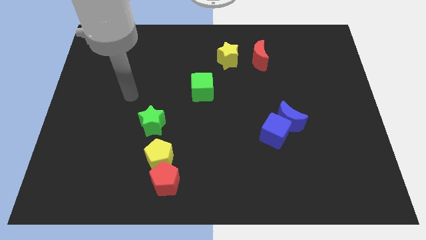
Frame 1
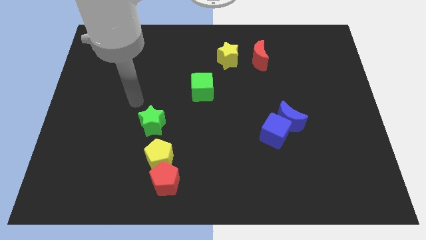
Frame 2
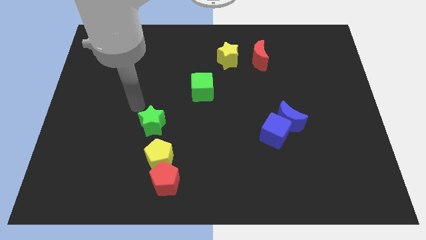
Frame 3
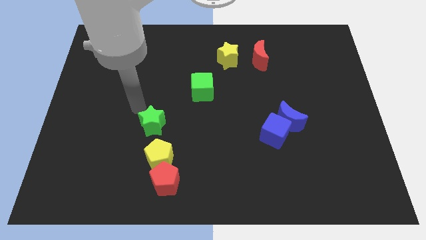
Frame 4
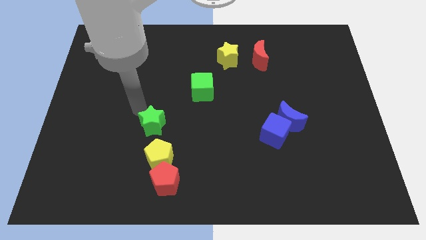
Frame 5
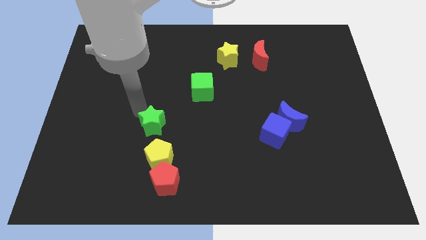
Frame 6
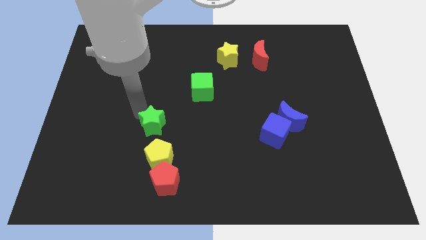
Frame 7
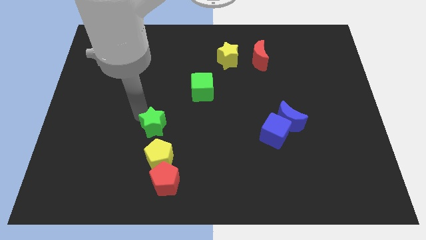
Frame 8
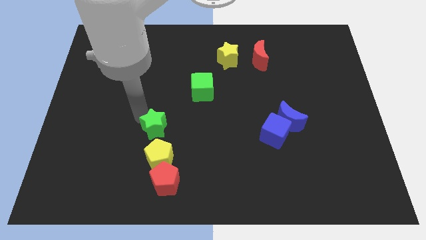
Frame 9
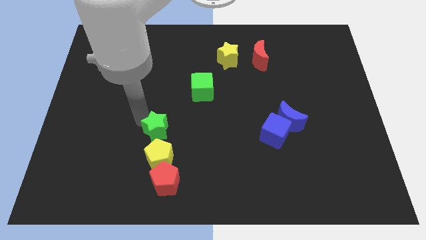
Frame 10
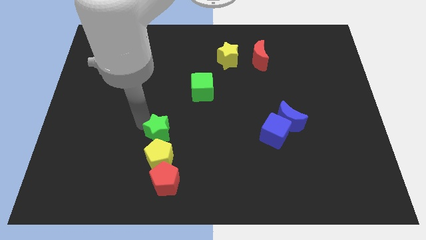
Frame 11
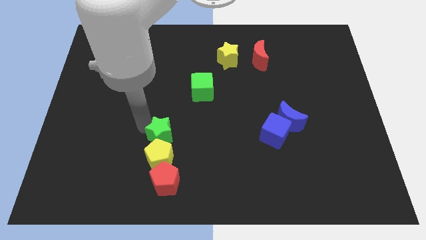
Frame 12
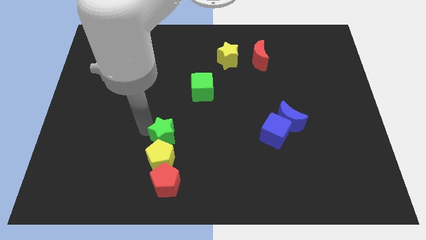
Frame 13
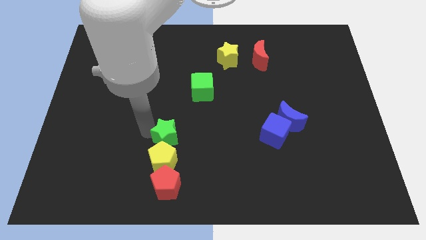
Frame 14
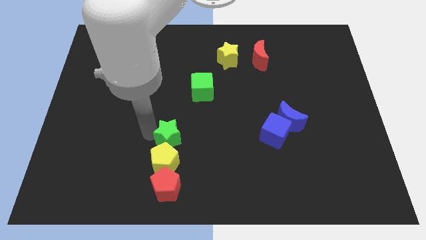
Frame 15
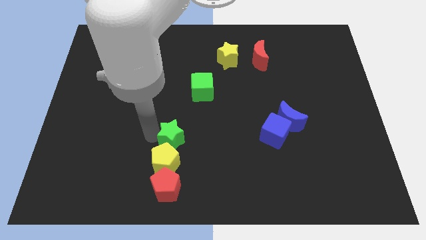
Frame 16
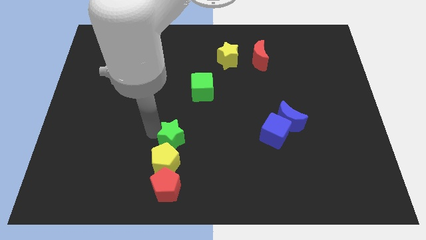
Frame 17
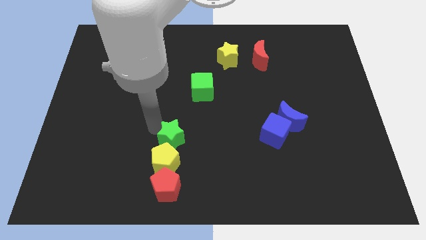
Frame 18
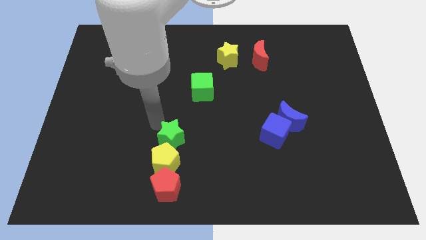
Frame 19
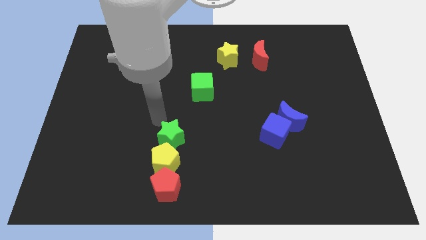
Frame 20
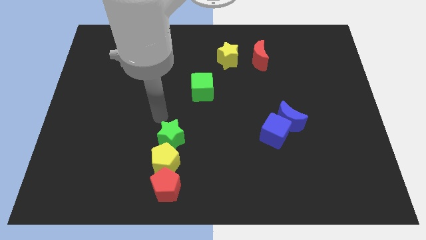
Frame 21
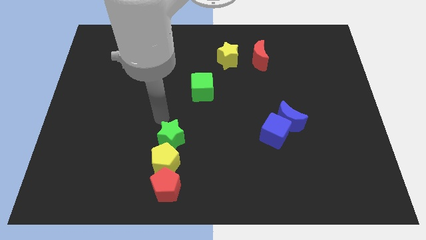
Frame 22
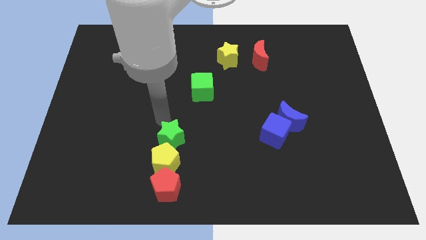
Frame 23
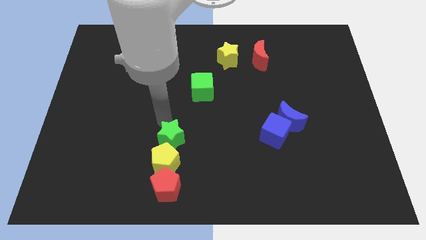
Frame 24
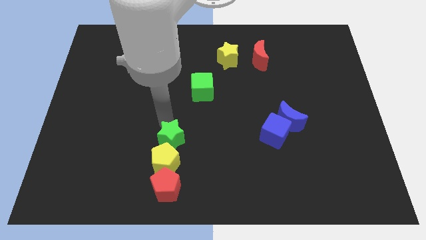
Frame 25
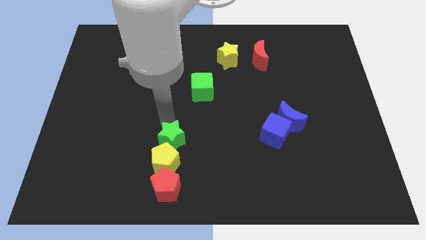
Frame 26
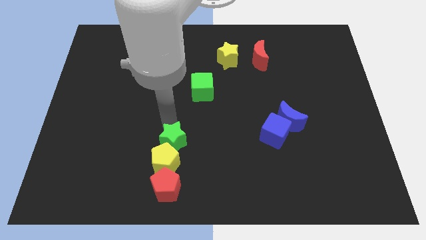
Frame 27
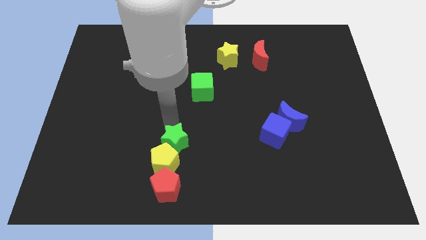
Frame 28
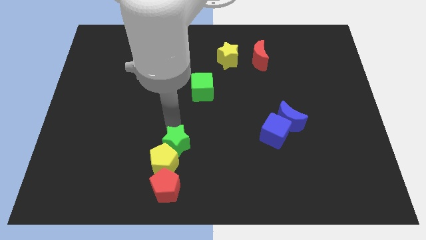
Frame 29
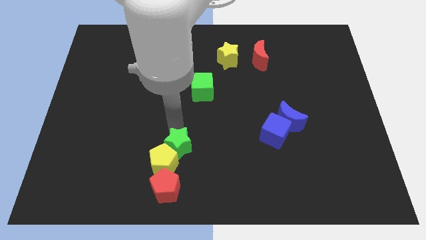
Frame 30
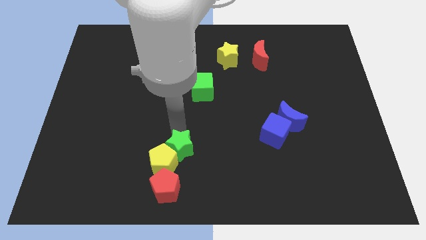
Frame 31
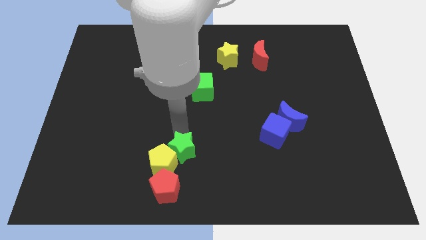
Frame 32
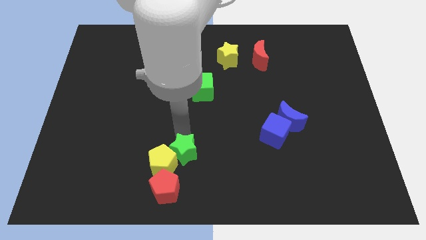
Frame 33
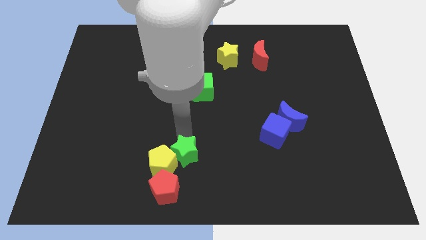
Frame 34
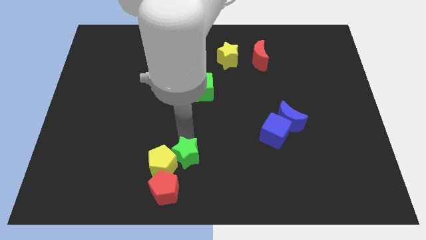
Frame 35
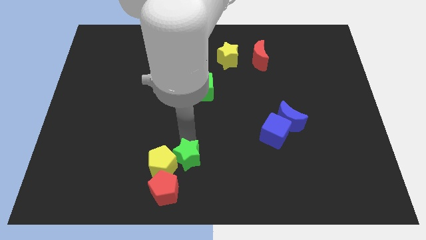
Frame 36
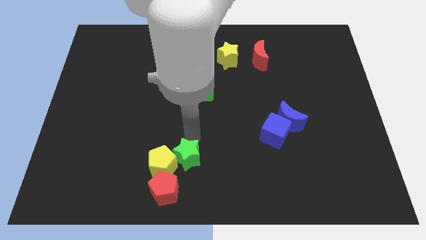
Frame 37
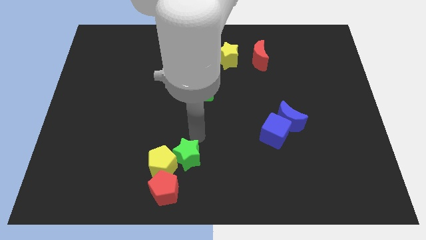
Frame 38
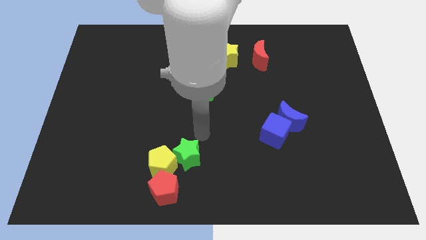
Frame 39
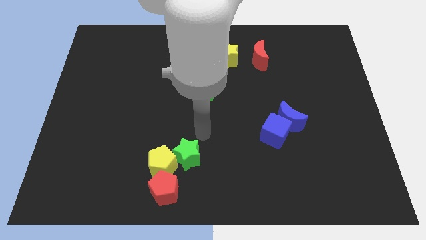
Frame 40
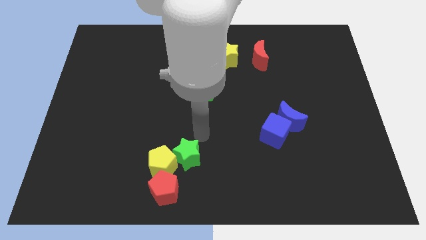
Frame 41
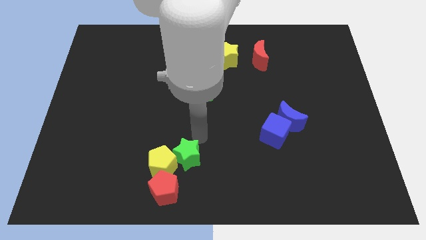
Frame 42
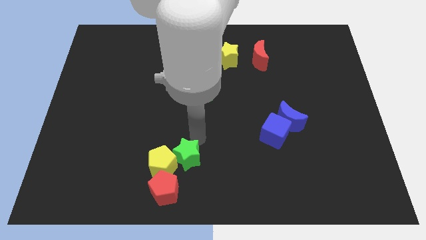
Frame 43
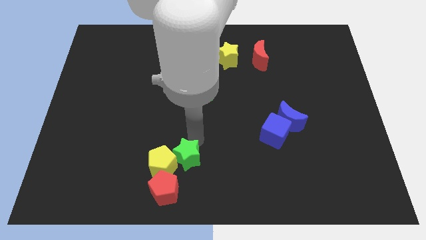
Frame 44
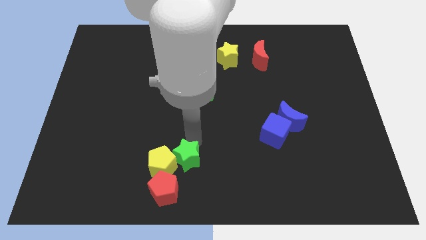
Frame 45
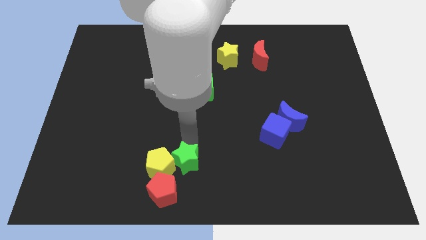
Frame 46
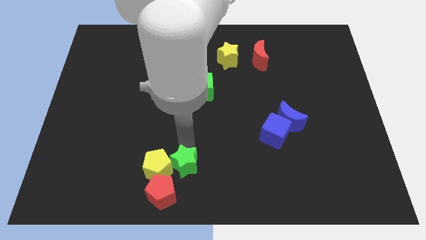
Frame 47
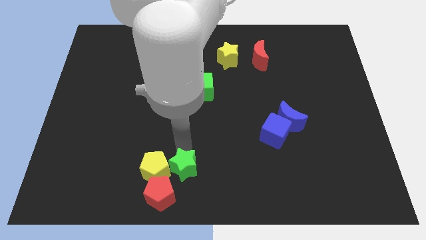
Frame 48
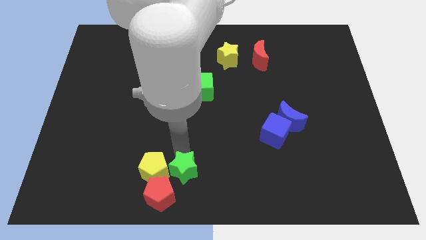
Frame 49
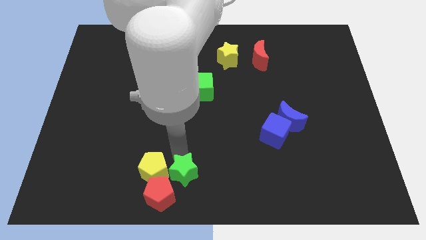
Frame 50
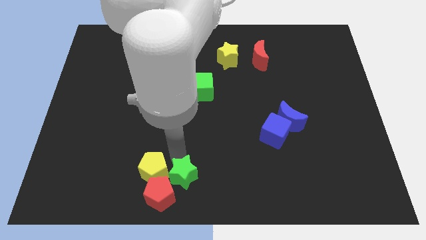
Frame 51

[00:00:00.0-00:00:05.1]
put the green star towards the red pentagon

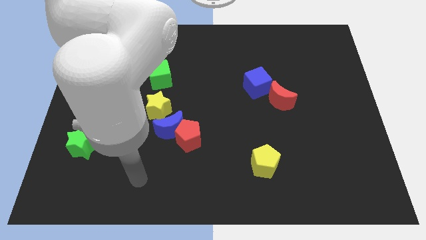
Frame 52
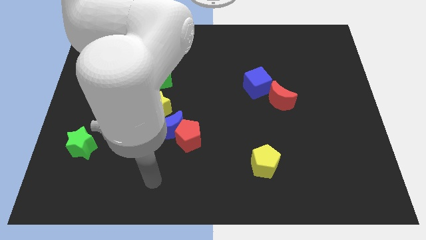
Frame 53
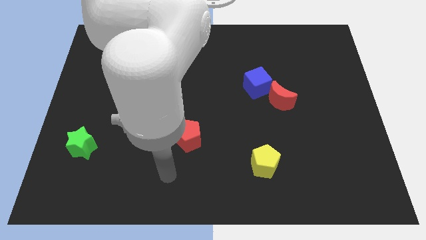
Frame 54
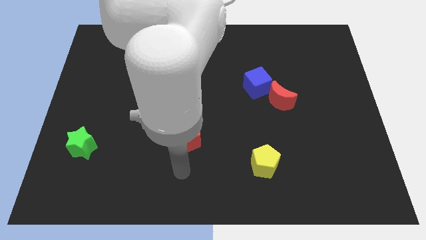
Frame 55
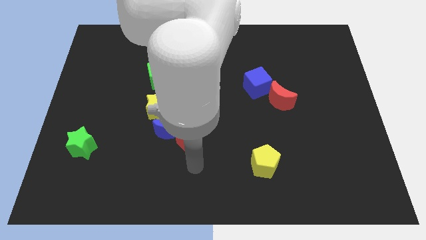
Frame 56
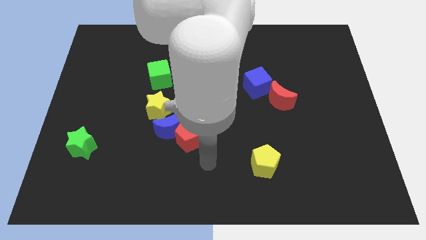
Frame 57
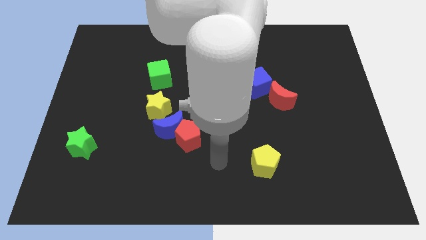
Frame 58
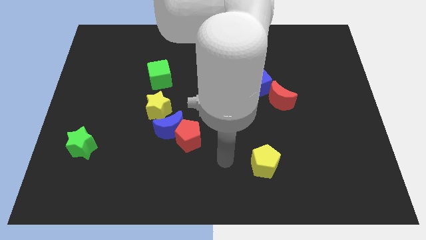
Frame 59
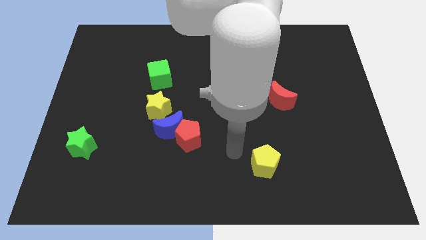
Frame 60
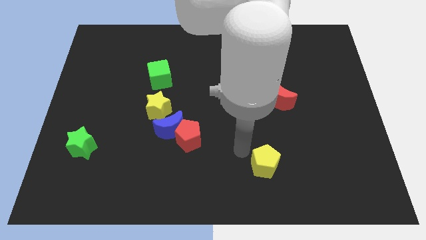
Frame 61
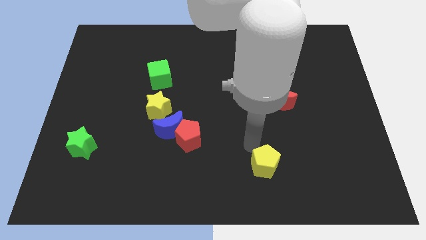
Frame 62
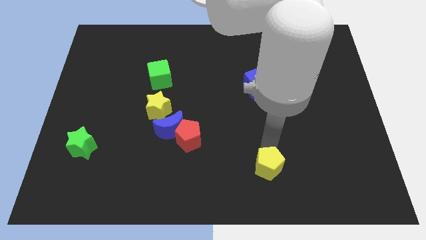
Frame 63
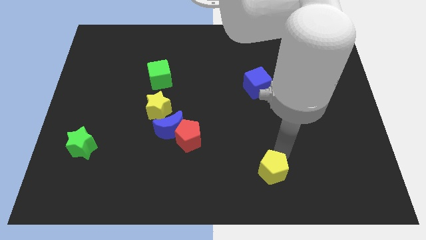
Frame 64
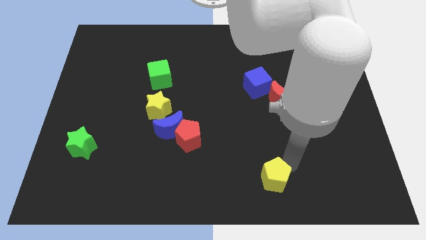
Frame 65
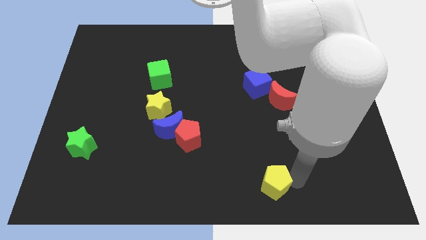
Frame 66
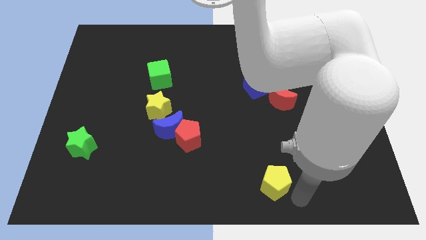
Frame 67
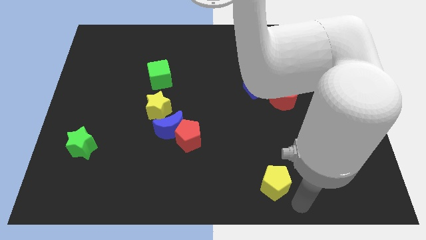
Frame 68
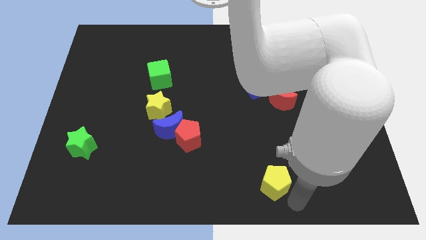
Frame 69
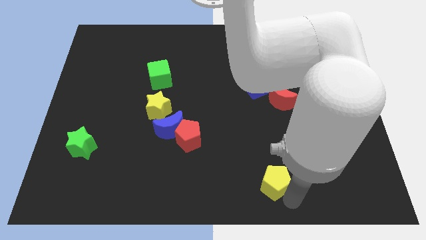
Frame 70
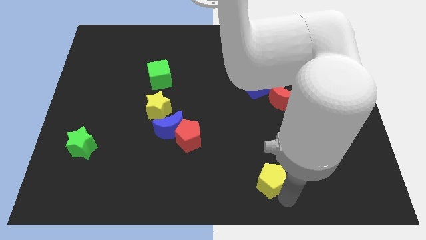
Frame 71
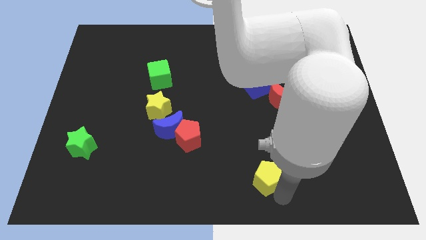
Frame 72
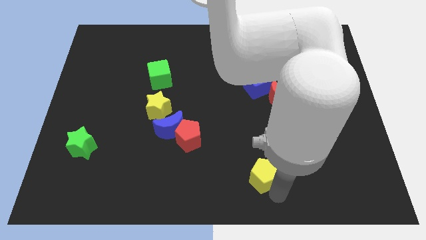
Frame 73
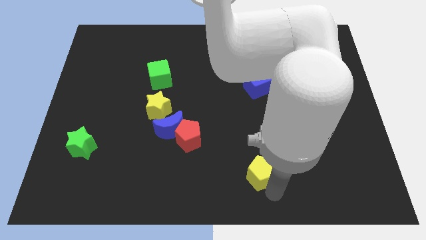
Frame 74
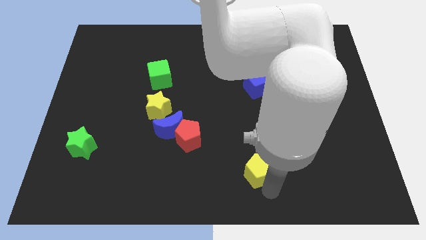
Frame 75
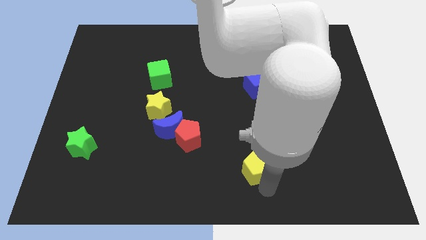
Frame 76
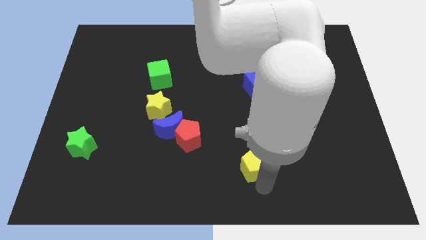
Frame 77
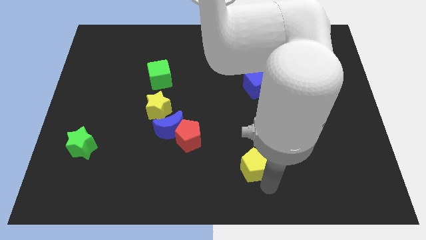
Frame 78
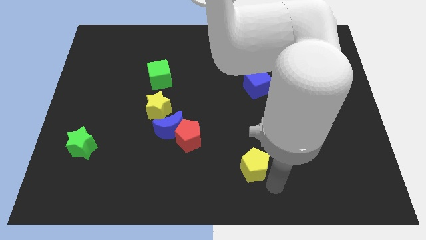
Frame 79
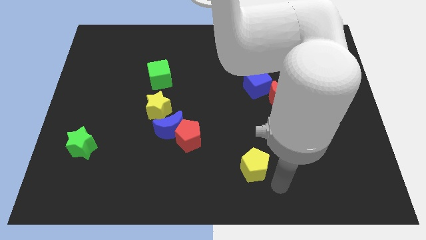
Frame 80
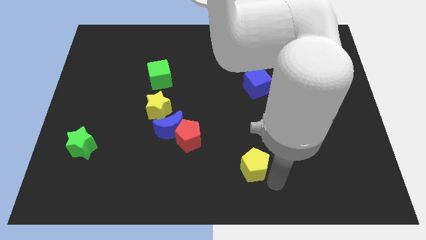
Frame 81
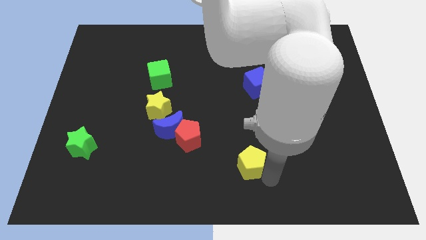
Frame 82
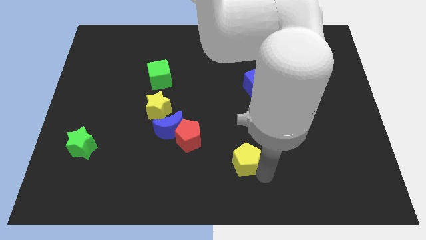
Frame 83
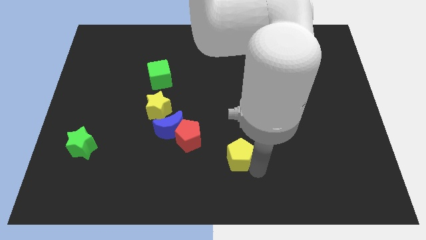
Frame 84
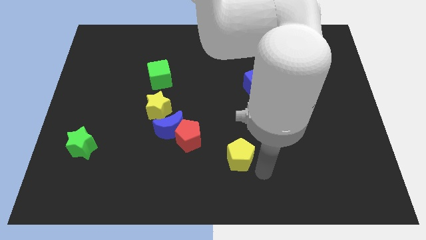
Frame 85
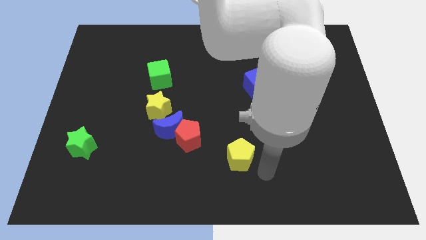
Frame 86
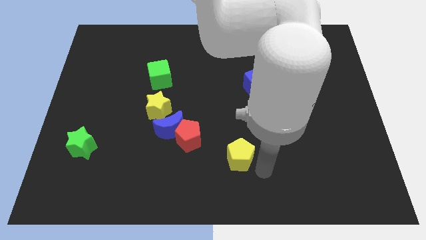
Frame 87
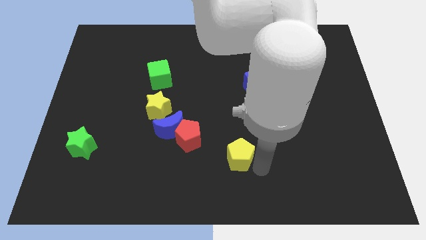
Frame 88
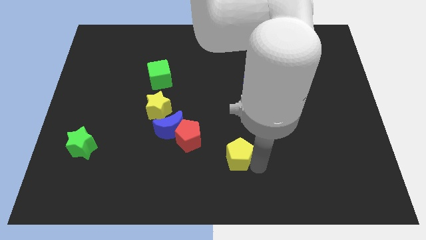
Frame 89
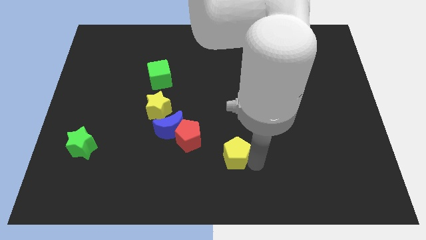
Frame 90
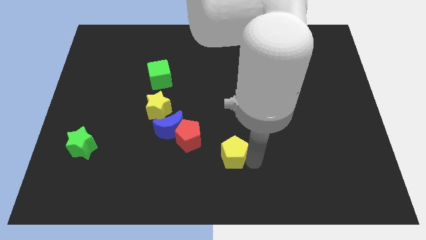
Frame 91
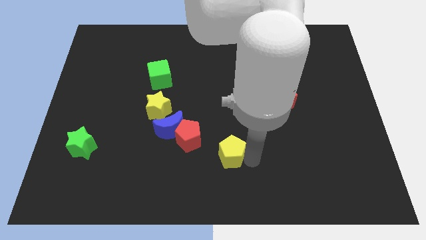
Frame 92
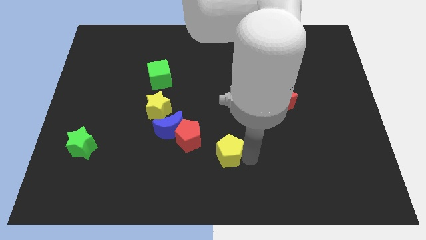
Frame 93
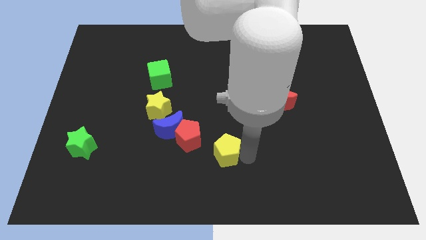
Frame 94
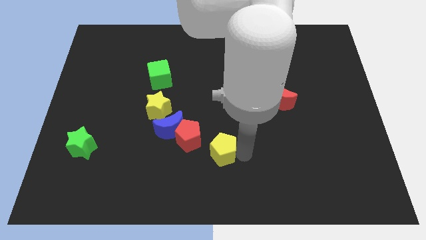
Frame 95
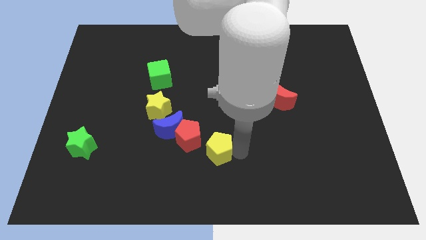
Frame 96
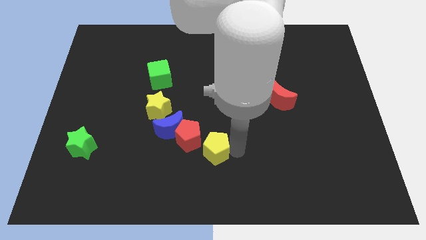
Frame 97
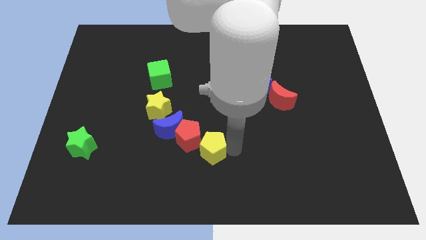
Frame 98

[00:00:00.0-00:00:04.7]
slide the yellow pentagon towards the red pentagon
